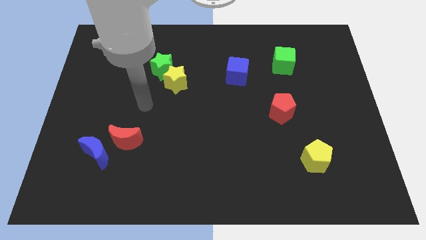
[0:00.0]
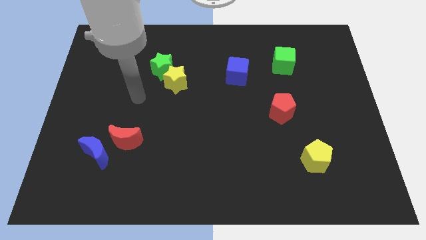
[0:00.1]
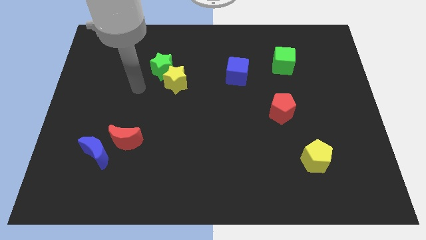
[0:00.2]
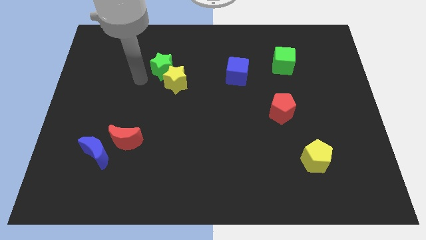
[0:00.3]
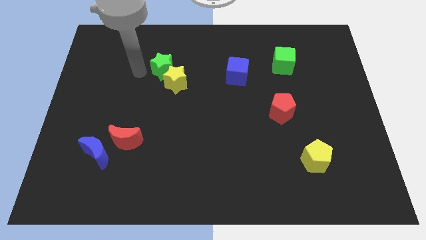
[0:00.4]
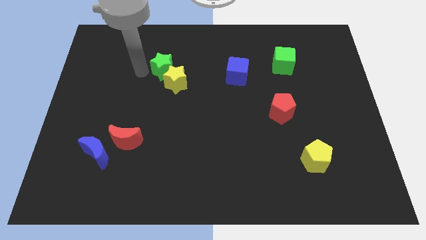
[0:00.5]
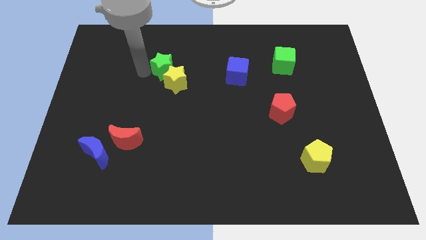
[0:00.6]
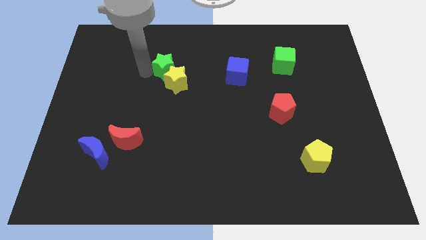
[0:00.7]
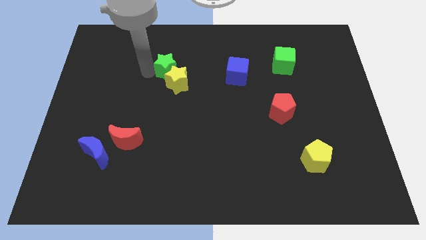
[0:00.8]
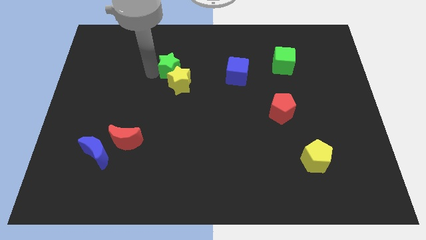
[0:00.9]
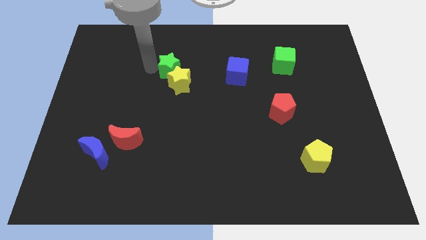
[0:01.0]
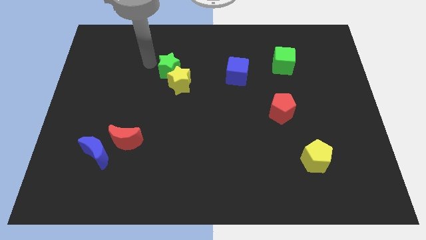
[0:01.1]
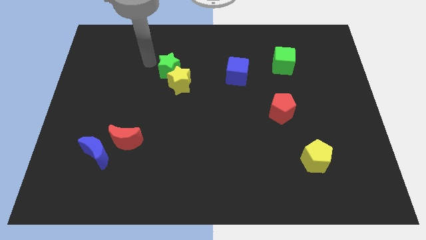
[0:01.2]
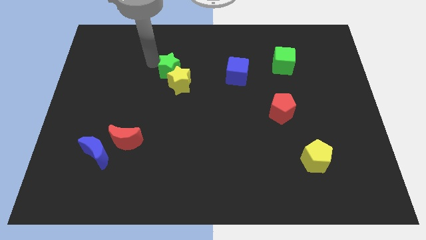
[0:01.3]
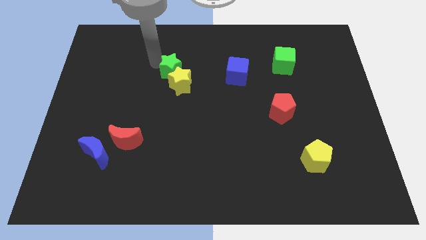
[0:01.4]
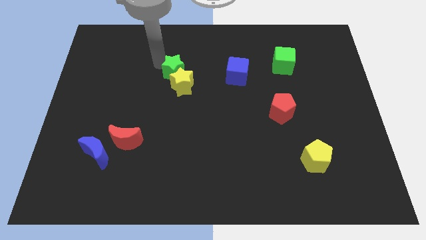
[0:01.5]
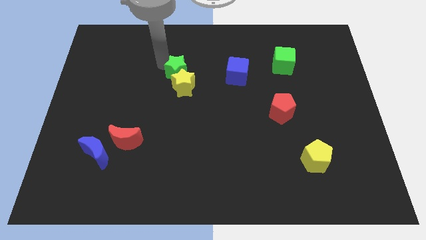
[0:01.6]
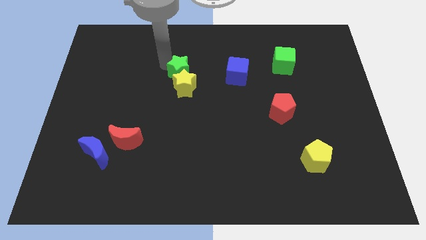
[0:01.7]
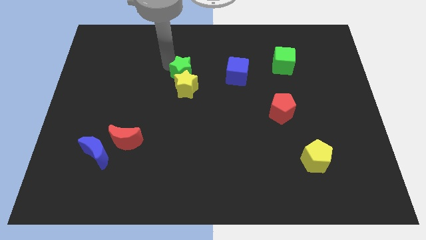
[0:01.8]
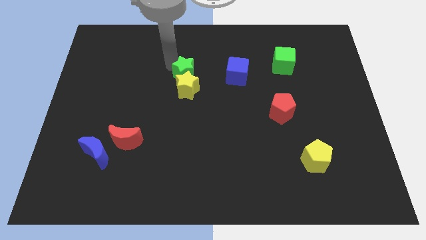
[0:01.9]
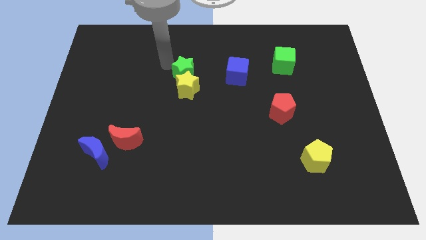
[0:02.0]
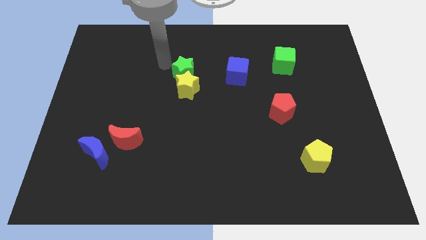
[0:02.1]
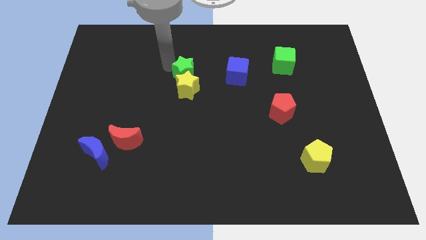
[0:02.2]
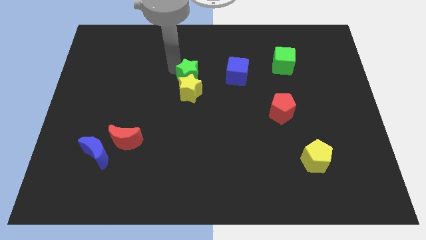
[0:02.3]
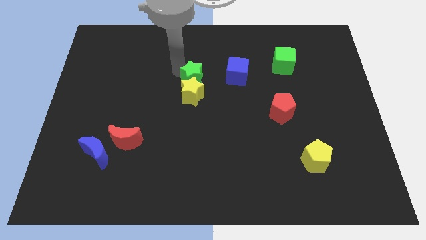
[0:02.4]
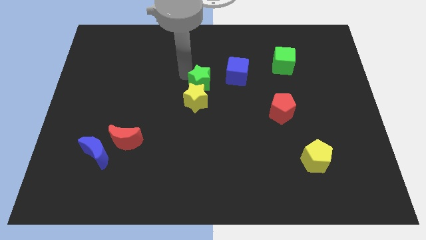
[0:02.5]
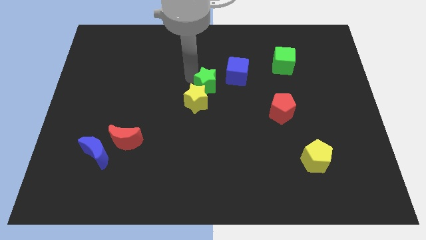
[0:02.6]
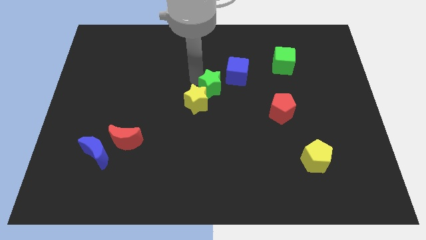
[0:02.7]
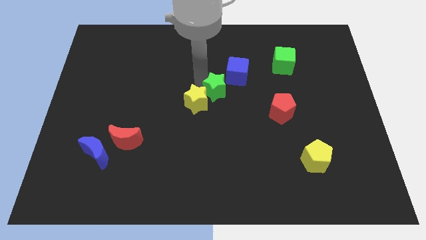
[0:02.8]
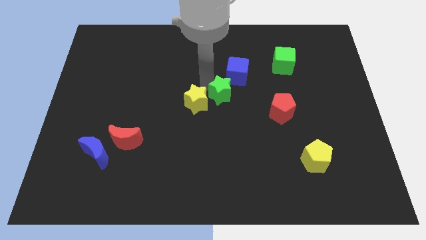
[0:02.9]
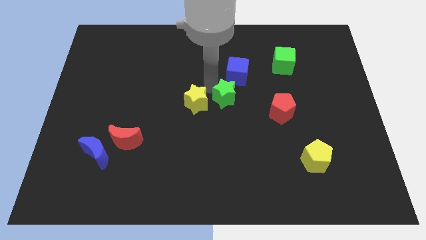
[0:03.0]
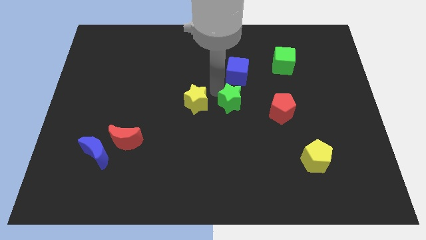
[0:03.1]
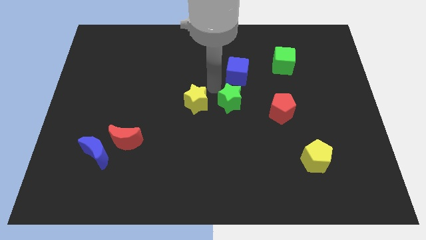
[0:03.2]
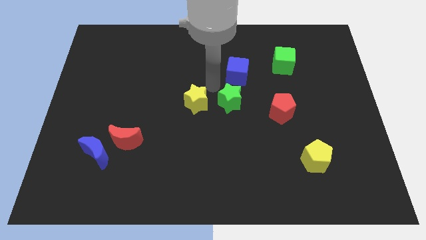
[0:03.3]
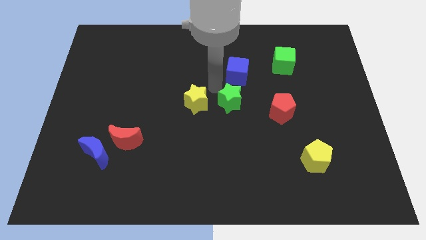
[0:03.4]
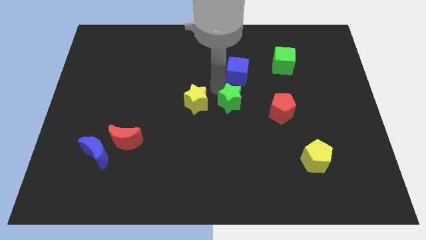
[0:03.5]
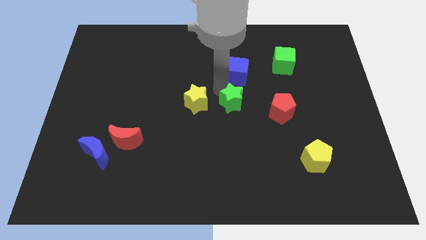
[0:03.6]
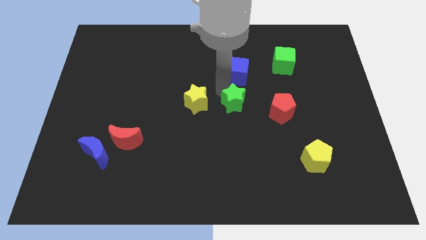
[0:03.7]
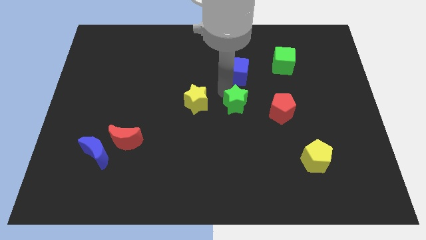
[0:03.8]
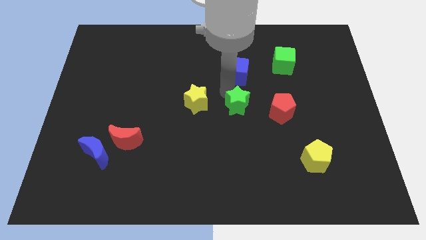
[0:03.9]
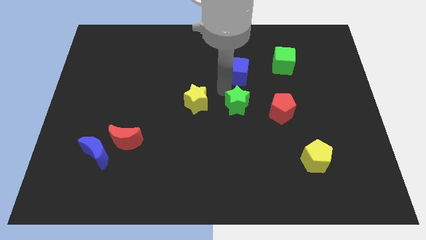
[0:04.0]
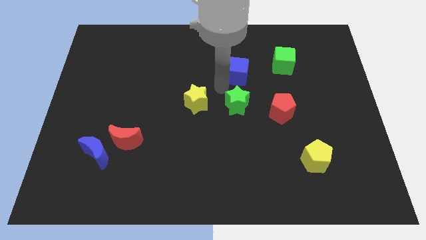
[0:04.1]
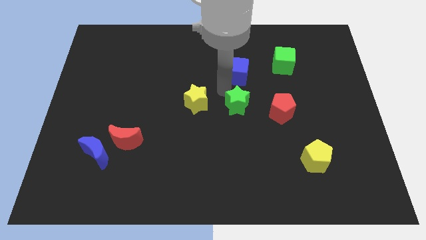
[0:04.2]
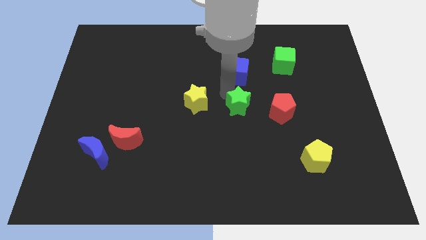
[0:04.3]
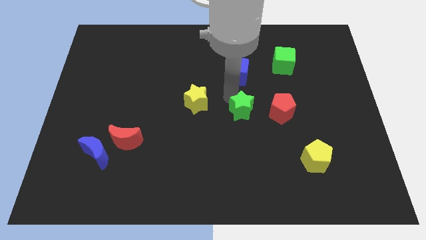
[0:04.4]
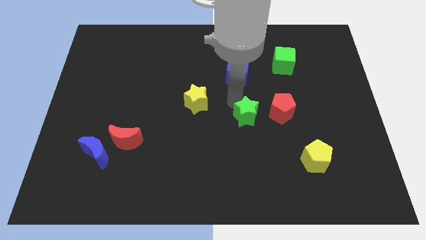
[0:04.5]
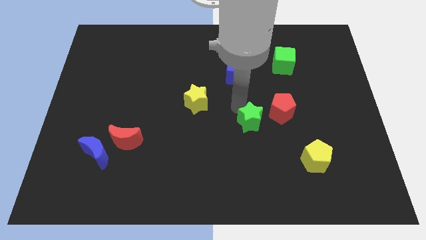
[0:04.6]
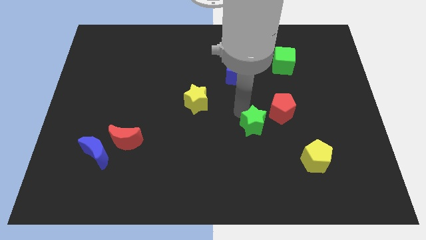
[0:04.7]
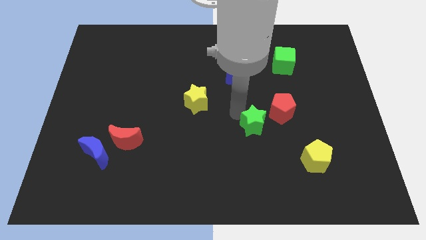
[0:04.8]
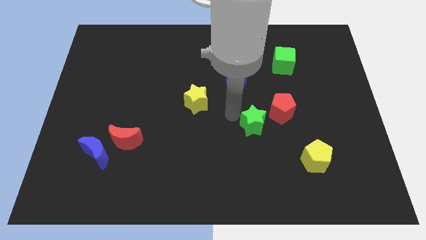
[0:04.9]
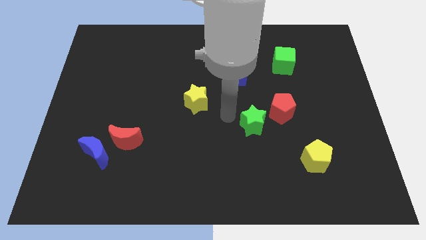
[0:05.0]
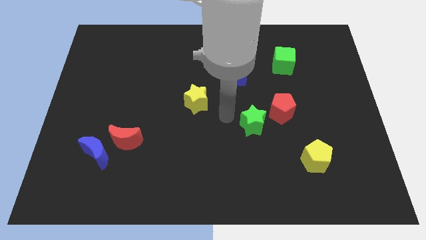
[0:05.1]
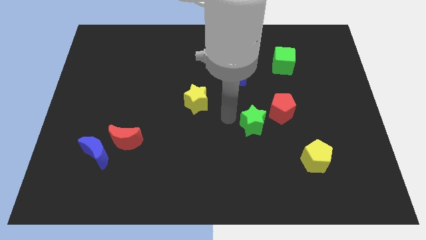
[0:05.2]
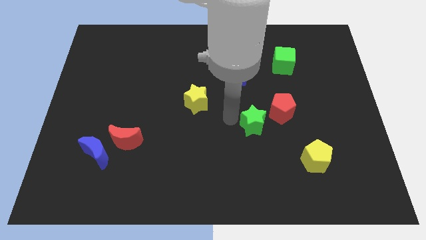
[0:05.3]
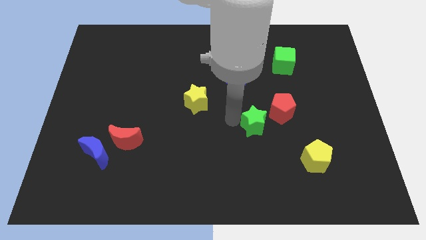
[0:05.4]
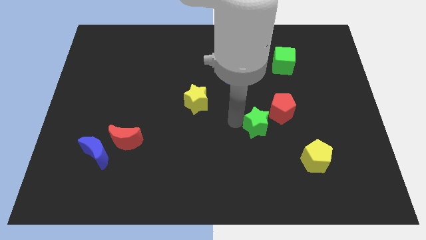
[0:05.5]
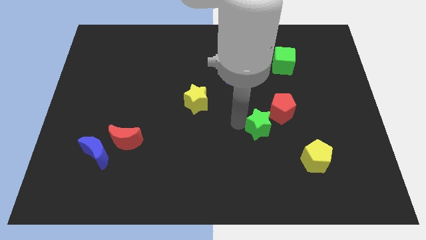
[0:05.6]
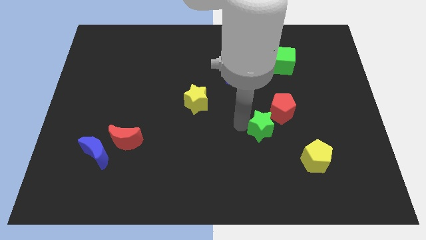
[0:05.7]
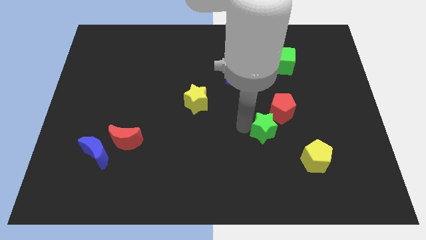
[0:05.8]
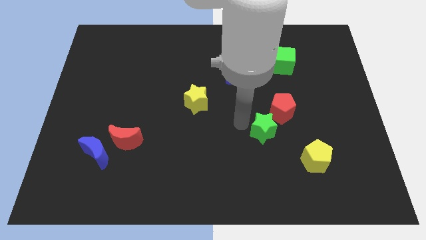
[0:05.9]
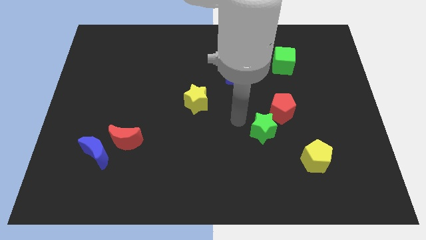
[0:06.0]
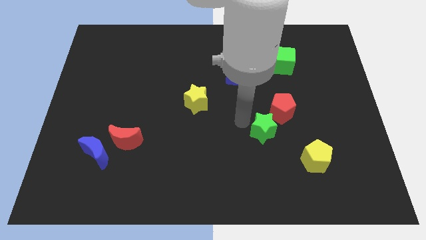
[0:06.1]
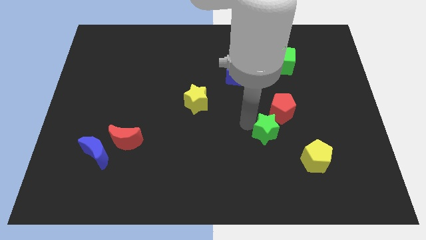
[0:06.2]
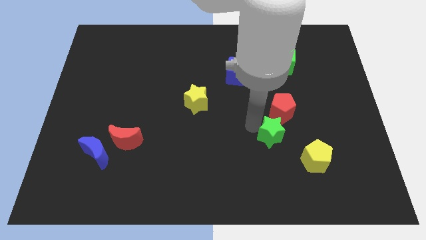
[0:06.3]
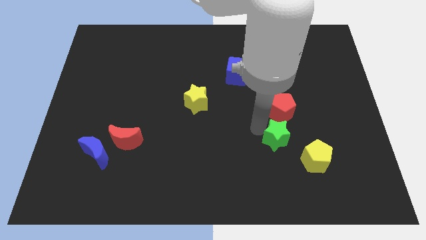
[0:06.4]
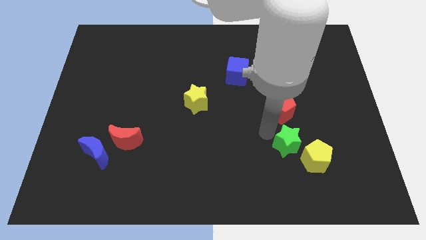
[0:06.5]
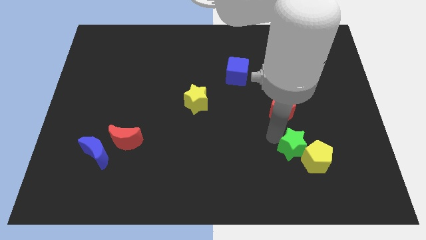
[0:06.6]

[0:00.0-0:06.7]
put the green star next to the yellow pentagon
